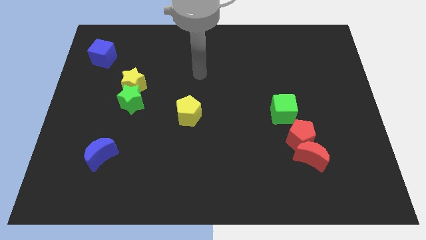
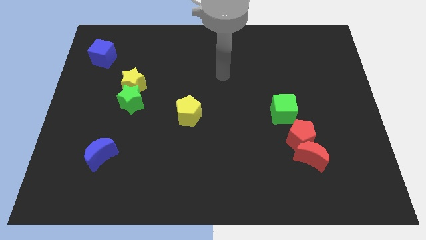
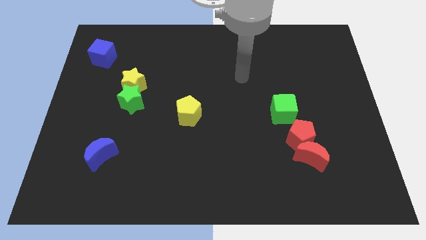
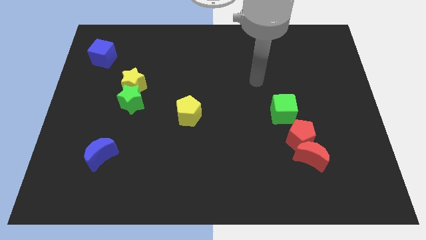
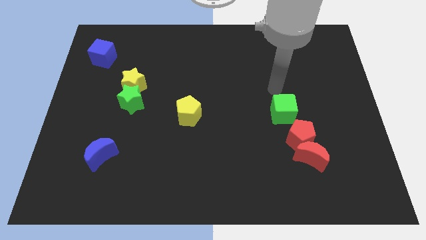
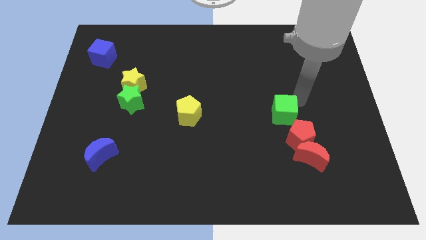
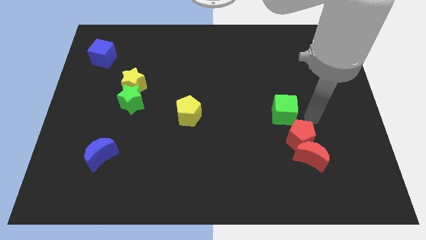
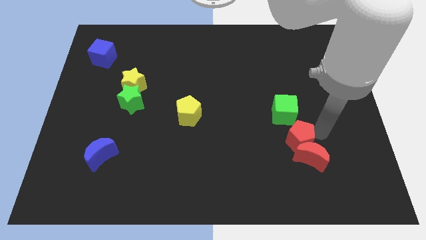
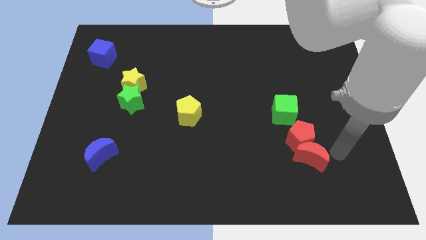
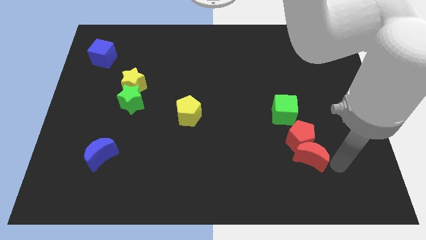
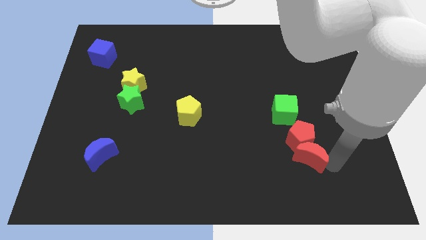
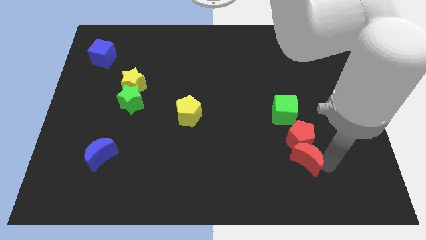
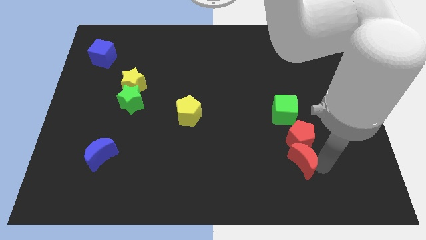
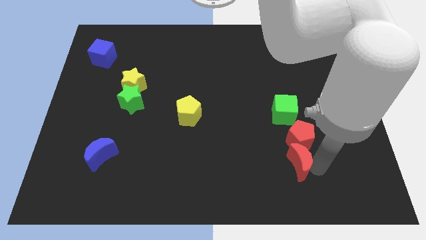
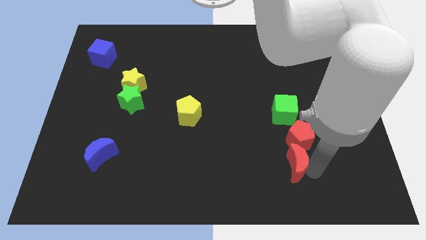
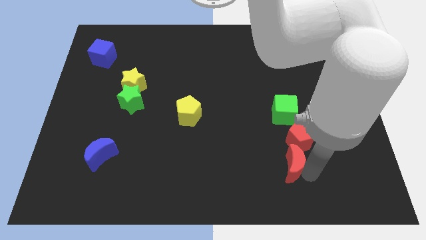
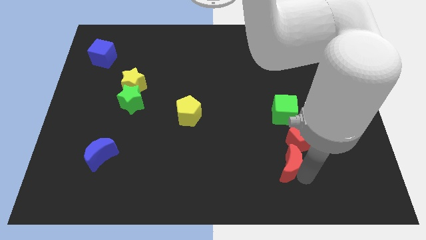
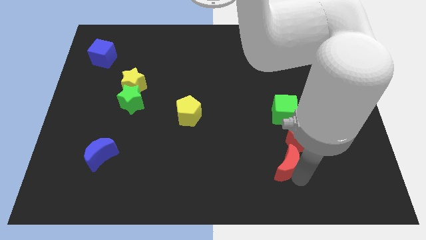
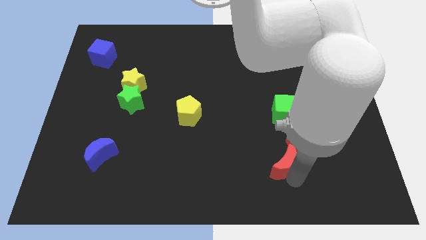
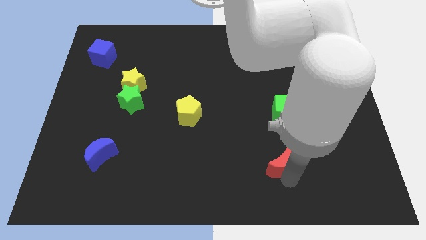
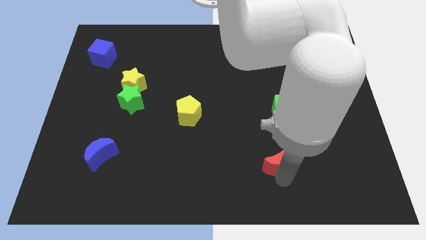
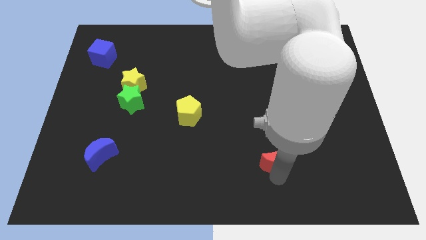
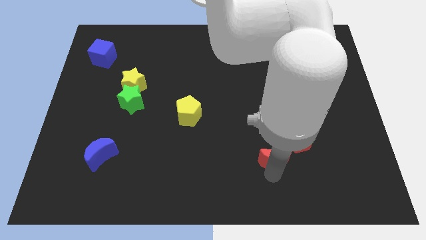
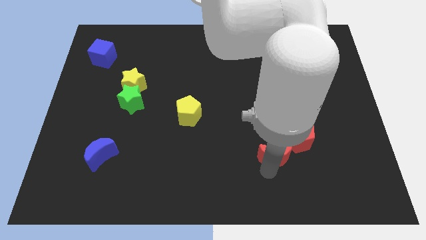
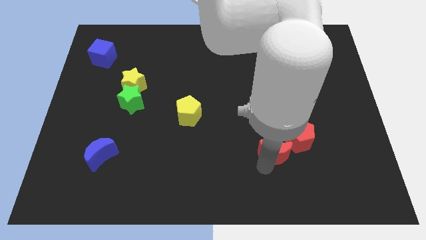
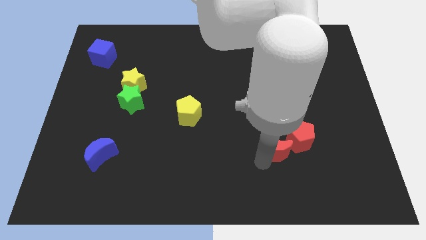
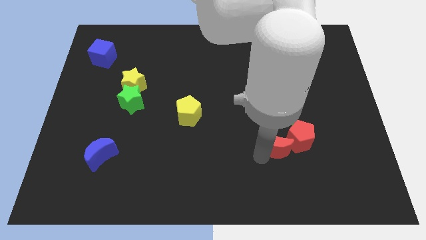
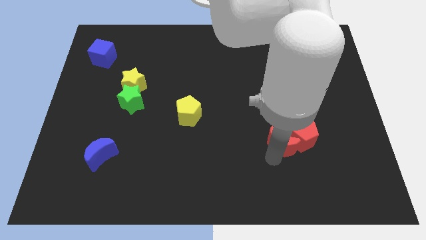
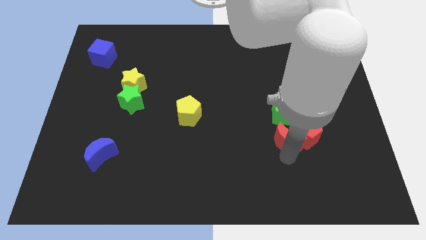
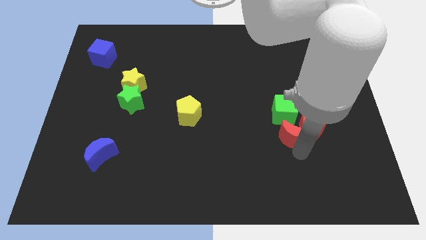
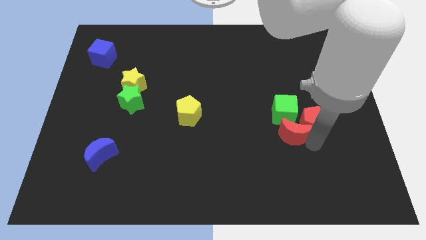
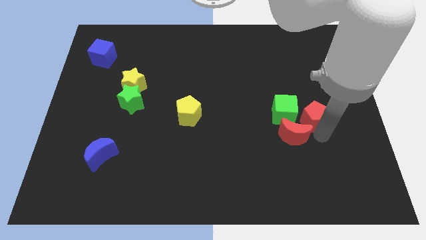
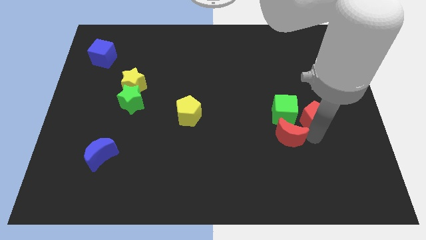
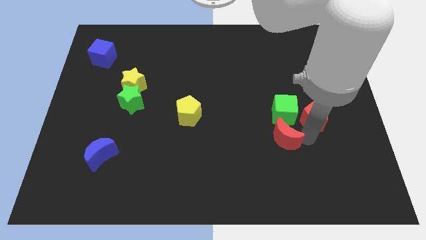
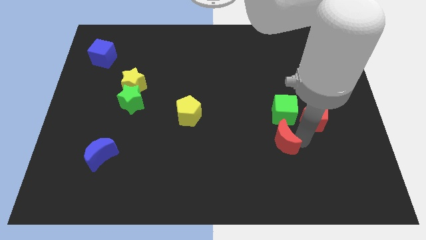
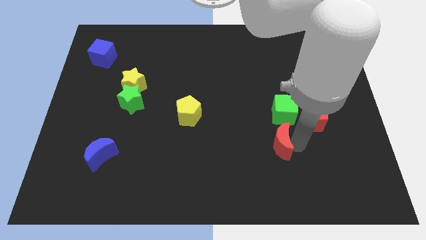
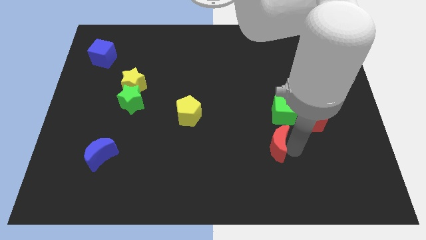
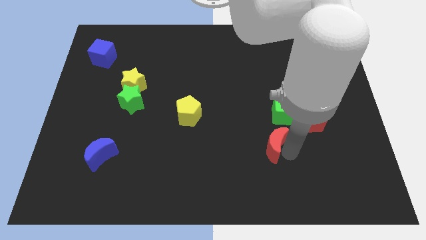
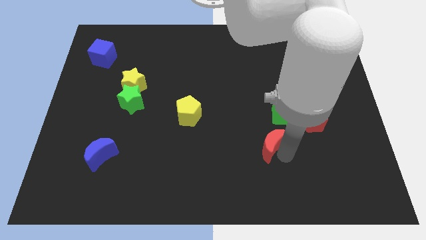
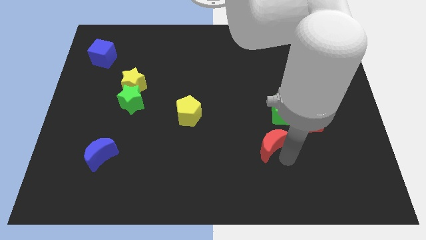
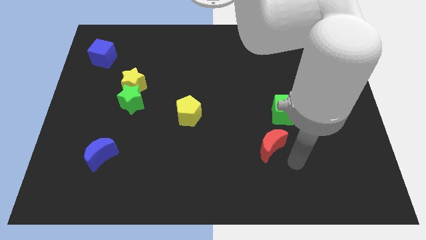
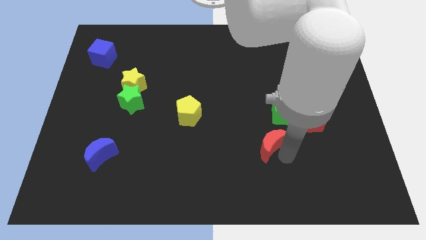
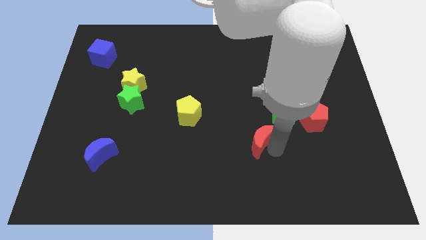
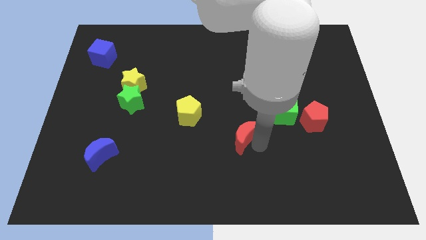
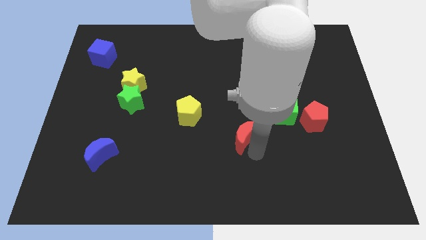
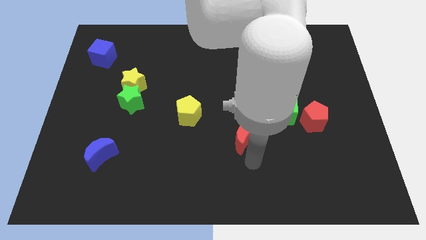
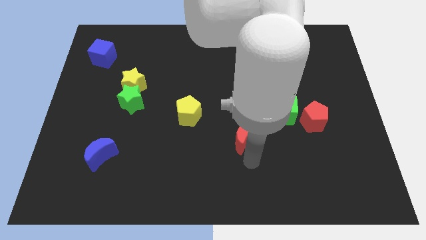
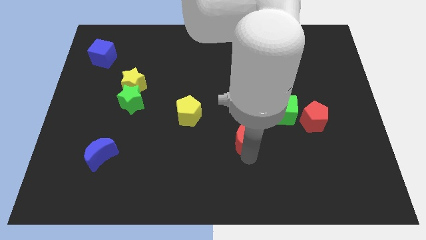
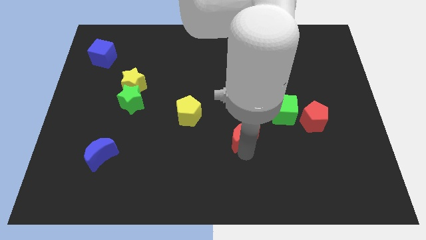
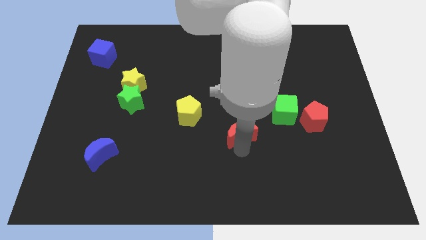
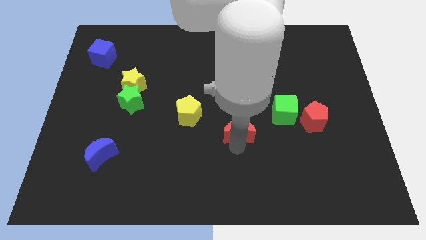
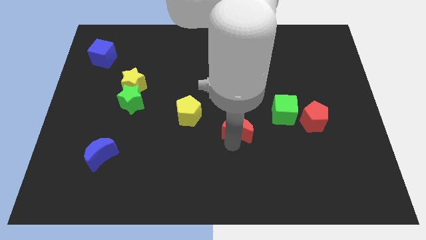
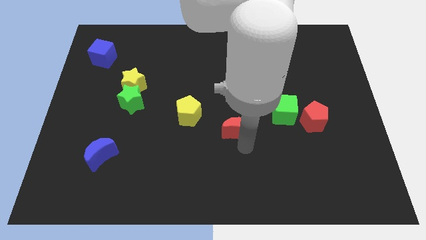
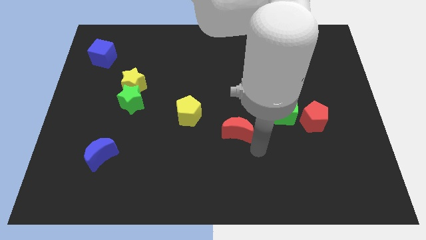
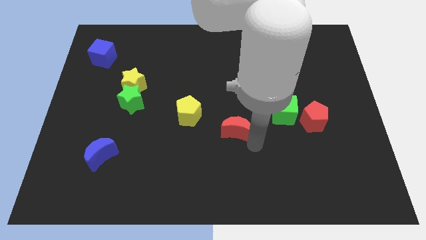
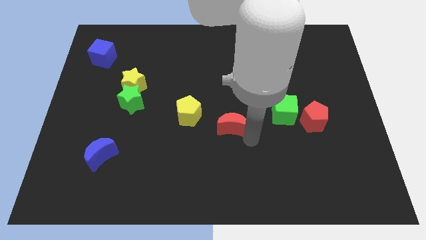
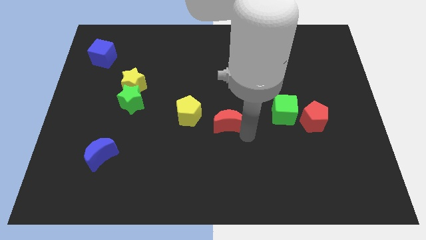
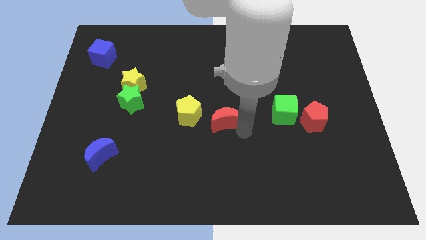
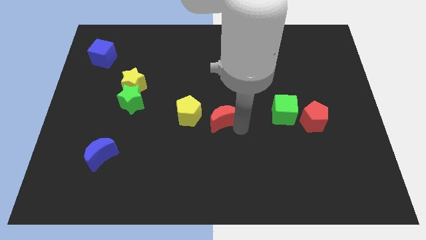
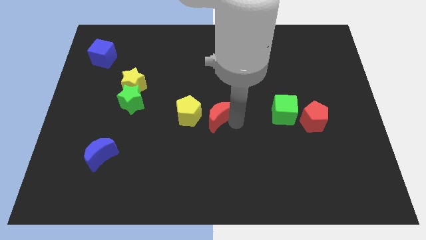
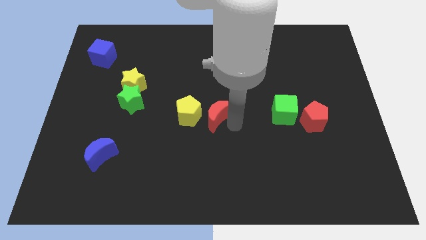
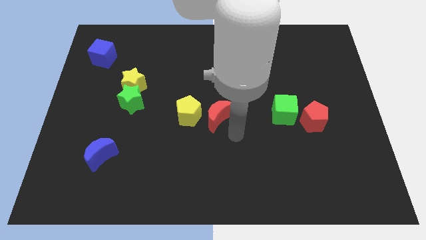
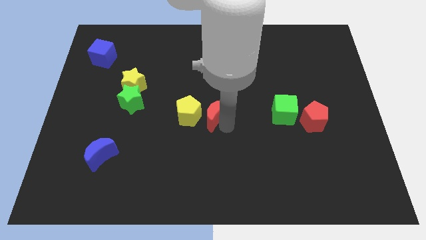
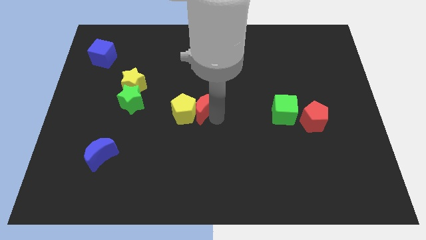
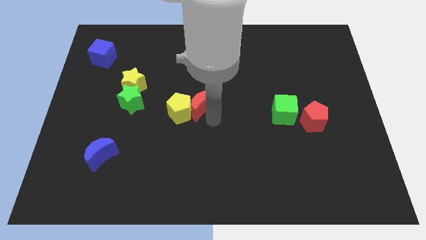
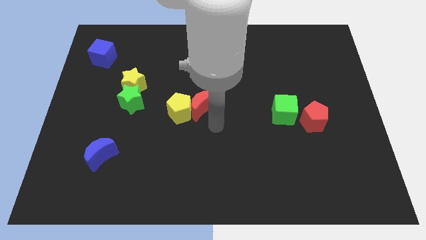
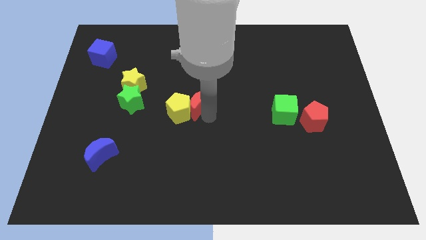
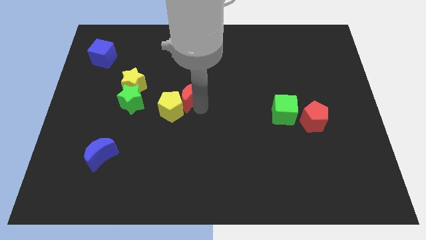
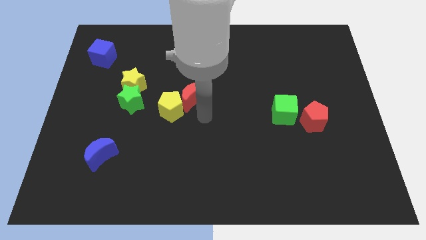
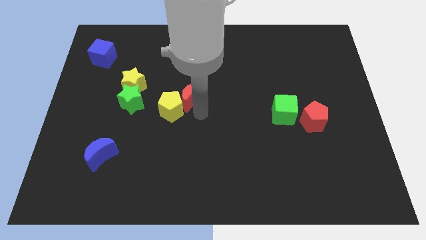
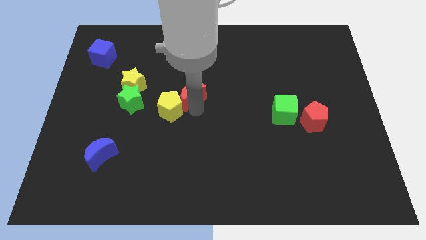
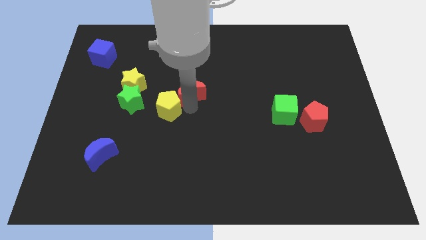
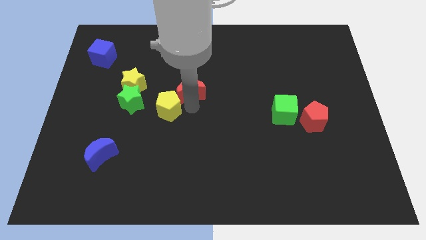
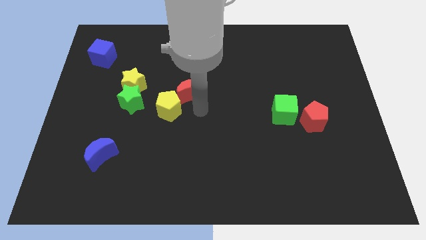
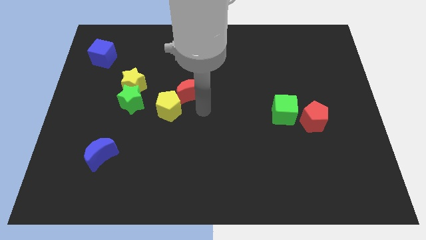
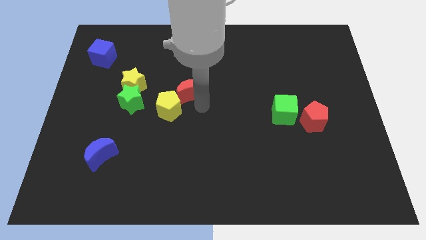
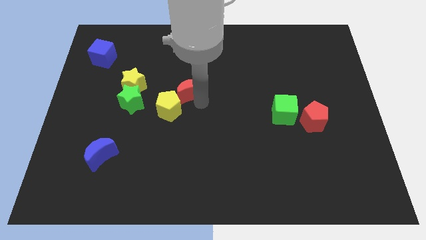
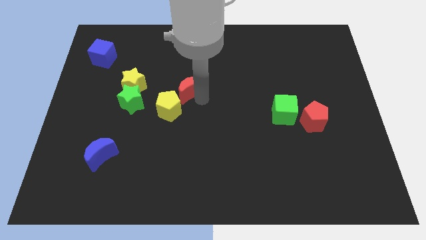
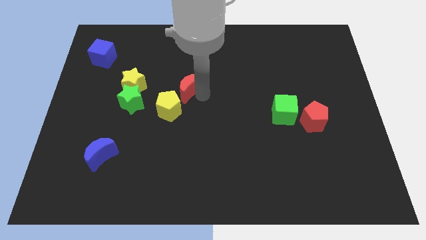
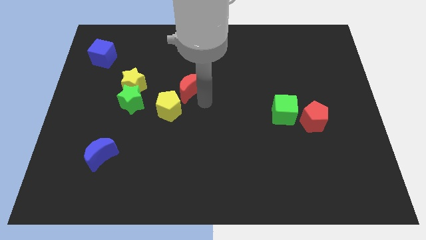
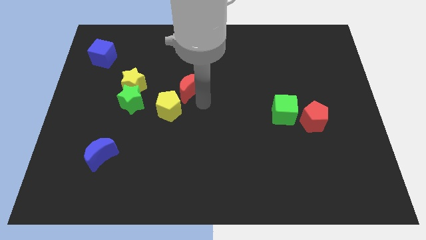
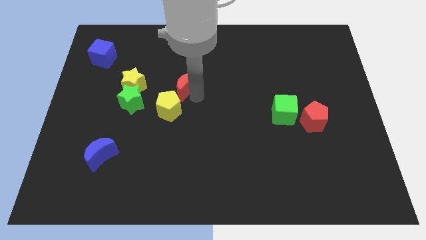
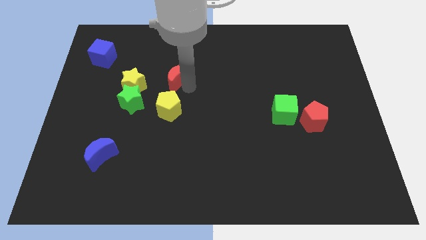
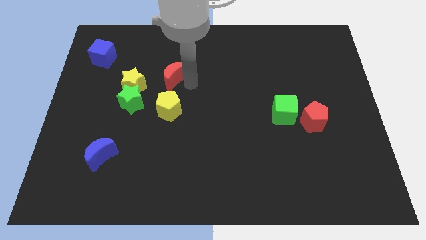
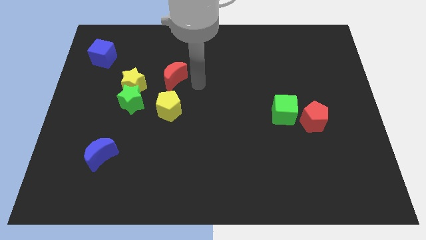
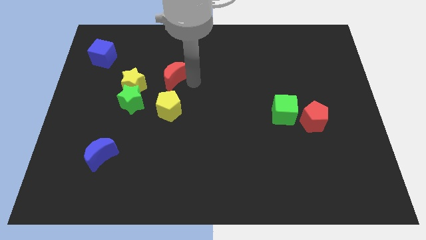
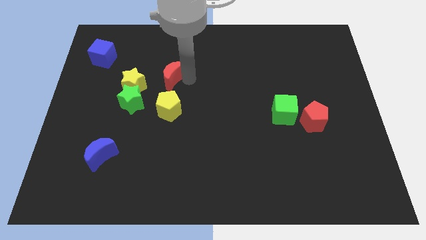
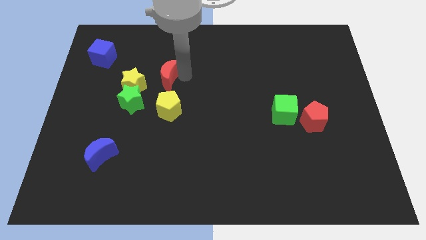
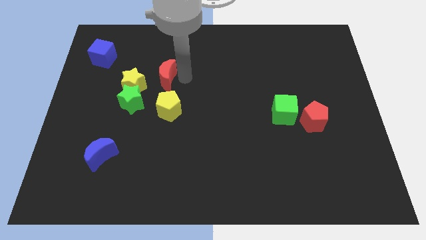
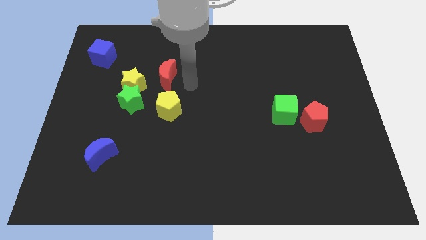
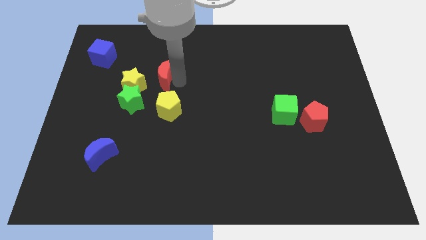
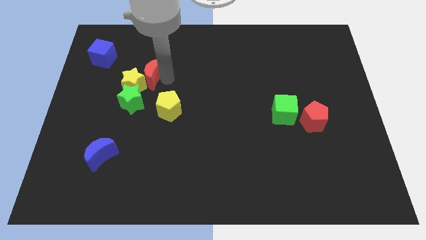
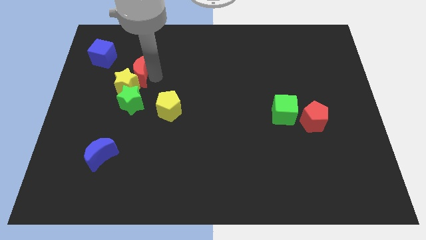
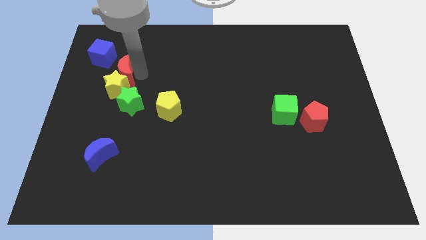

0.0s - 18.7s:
move the red moon to the top left of the yellow star
